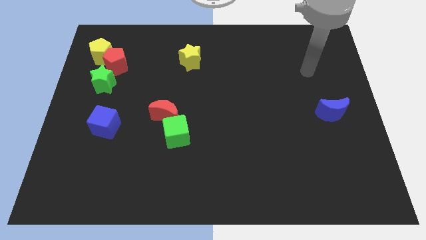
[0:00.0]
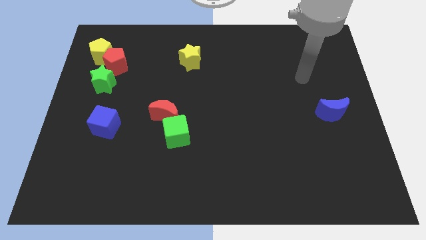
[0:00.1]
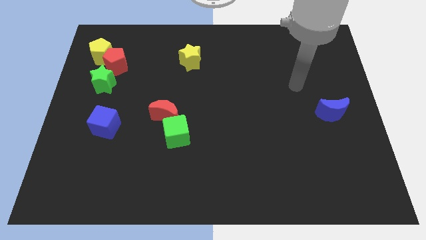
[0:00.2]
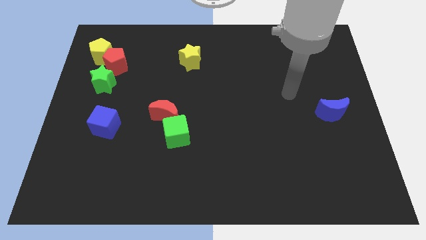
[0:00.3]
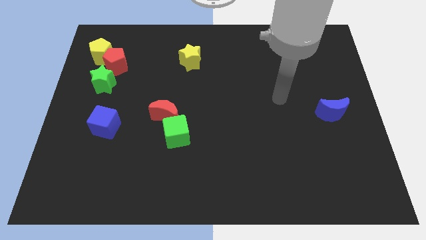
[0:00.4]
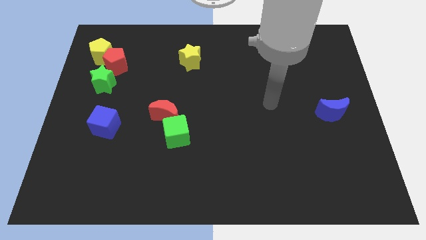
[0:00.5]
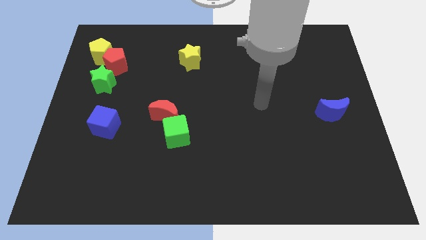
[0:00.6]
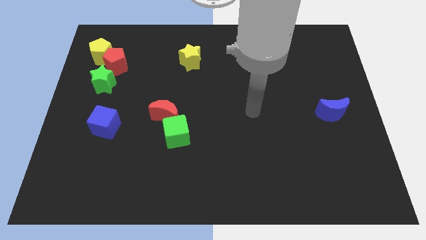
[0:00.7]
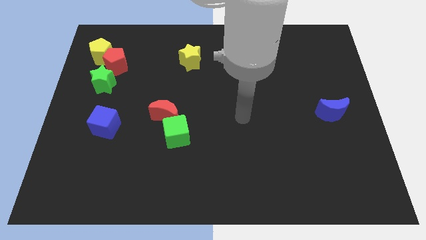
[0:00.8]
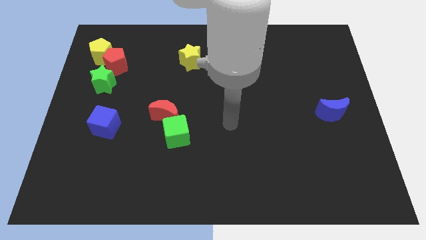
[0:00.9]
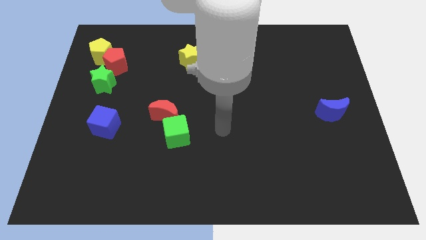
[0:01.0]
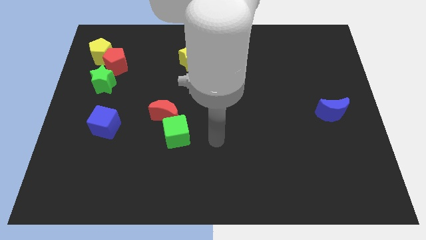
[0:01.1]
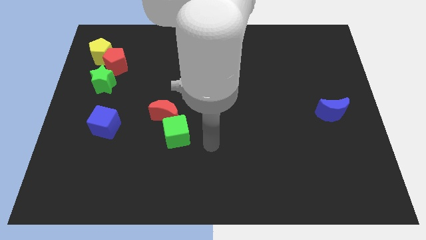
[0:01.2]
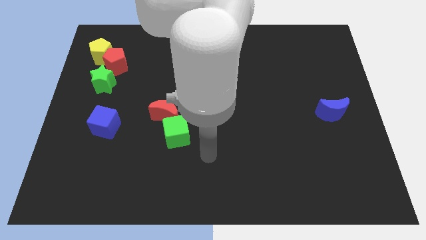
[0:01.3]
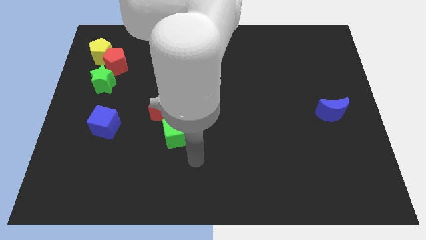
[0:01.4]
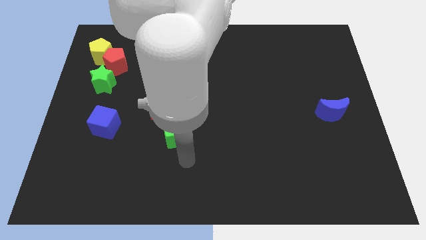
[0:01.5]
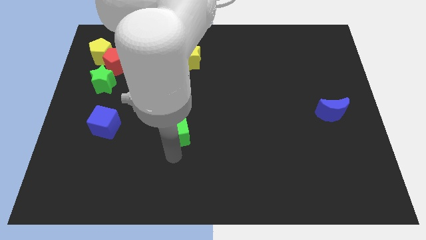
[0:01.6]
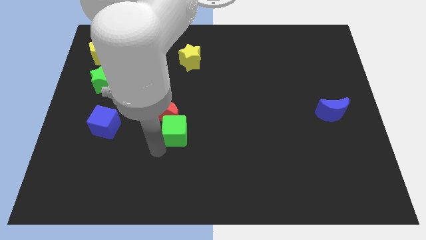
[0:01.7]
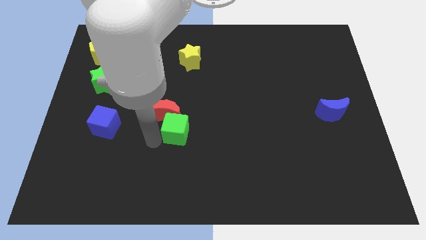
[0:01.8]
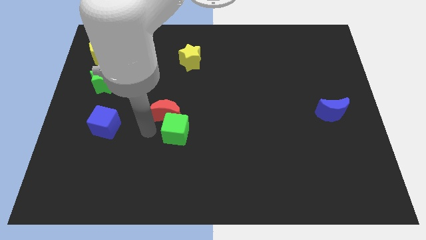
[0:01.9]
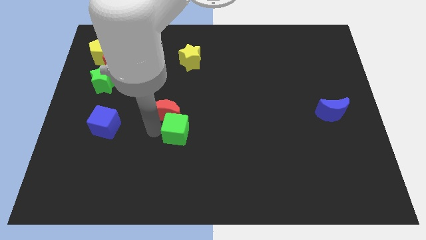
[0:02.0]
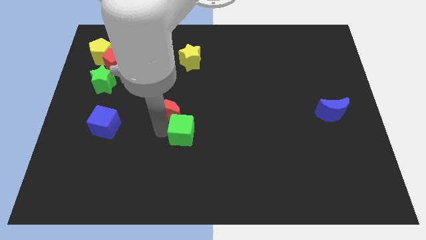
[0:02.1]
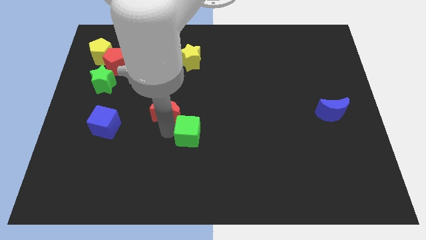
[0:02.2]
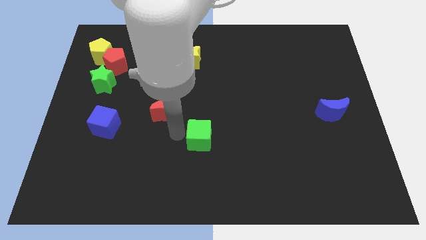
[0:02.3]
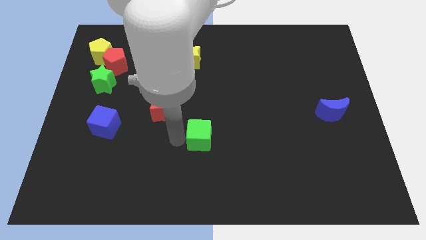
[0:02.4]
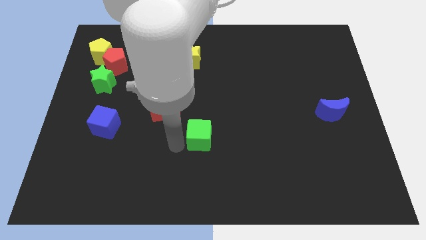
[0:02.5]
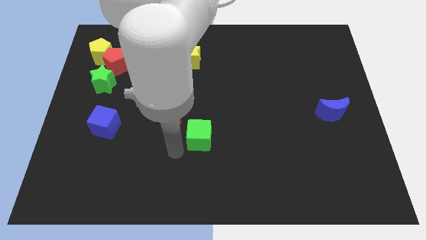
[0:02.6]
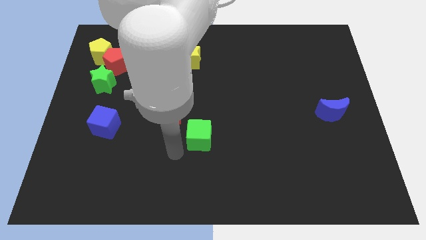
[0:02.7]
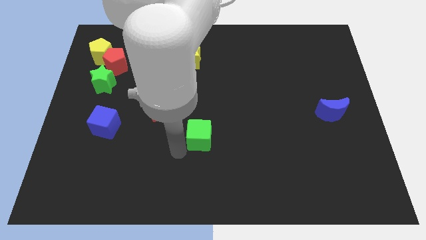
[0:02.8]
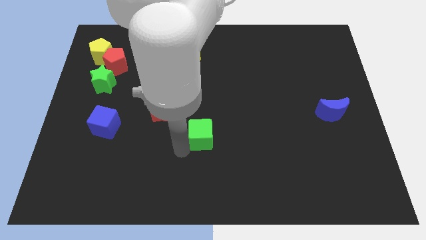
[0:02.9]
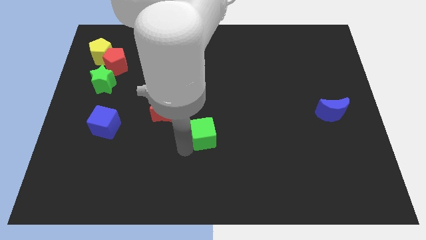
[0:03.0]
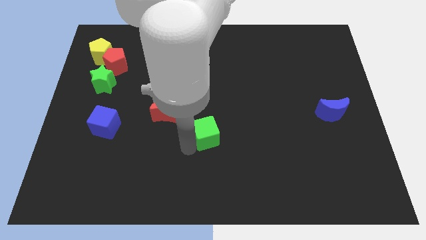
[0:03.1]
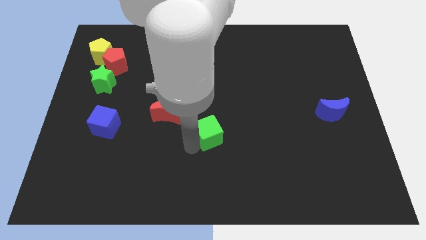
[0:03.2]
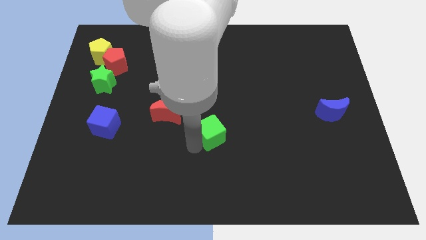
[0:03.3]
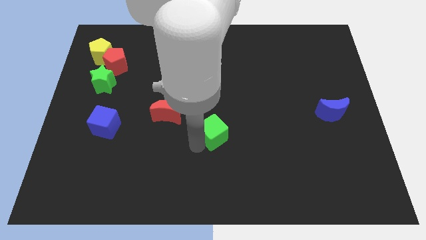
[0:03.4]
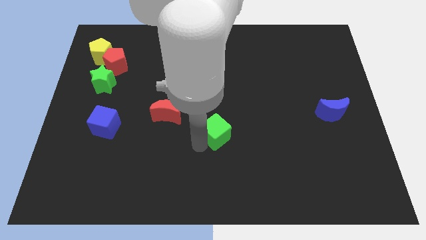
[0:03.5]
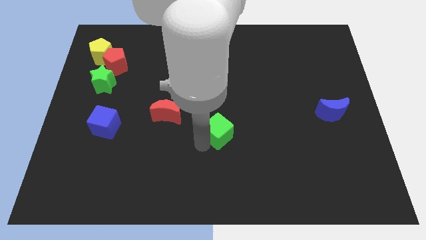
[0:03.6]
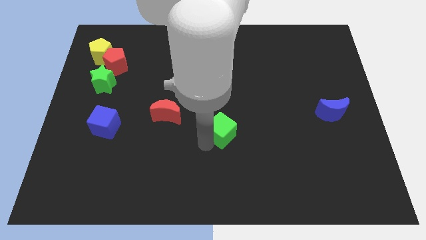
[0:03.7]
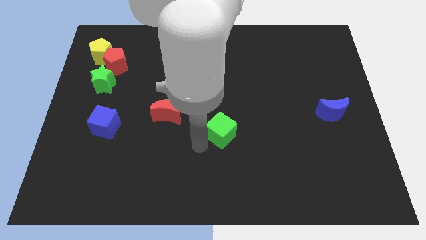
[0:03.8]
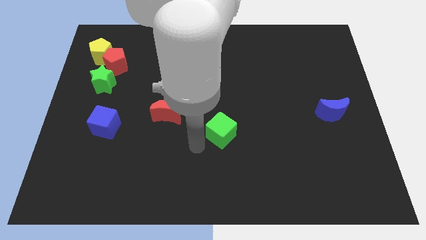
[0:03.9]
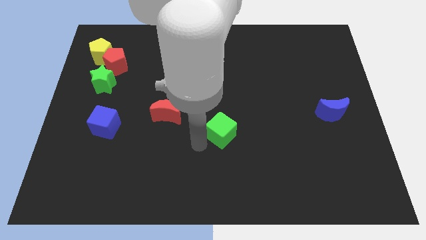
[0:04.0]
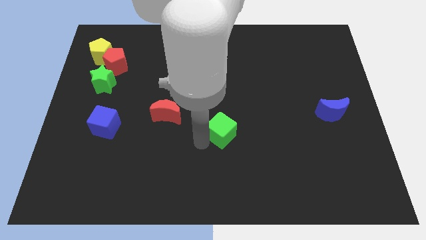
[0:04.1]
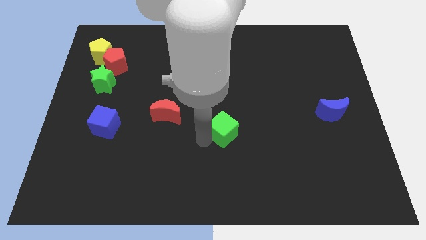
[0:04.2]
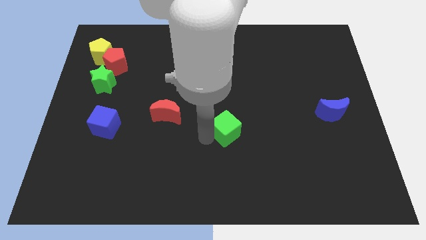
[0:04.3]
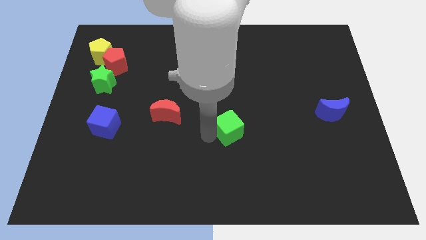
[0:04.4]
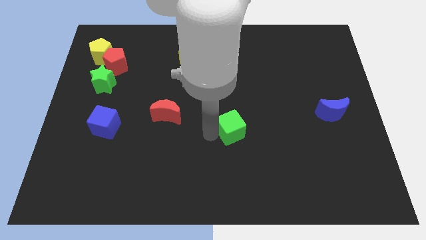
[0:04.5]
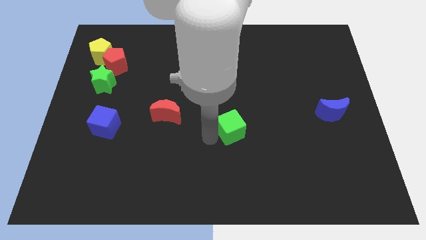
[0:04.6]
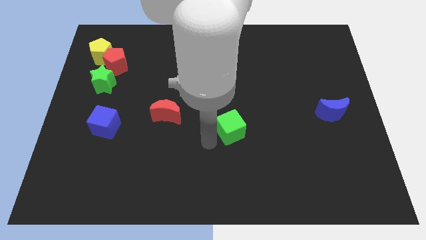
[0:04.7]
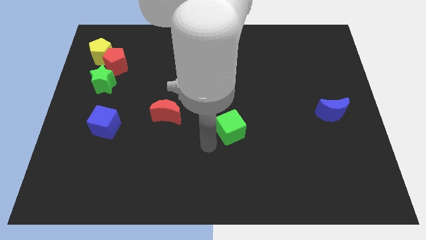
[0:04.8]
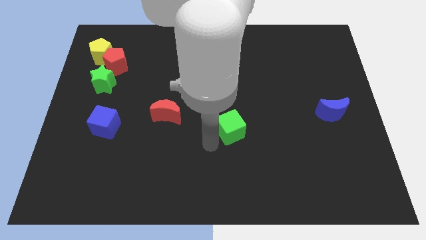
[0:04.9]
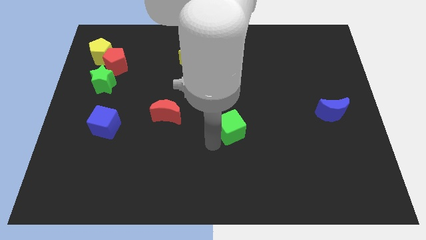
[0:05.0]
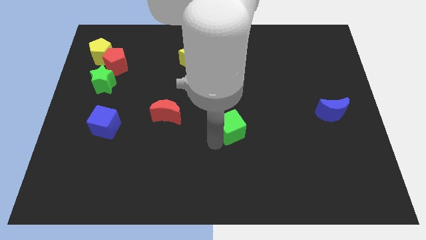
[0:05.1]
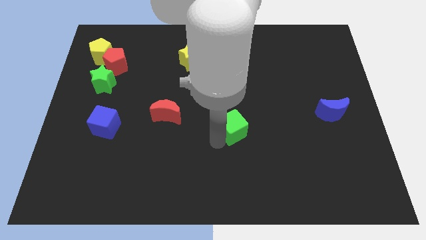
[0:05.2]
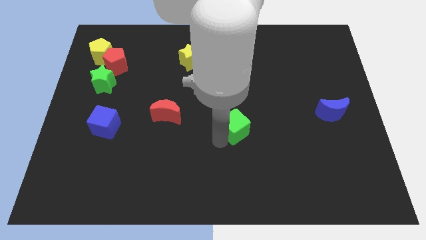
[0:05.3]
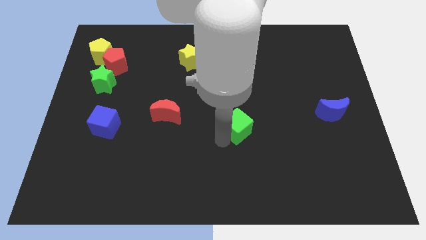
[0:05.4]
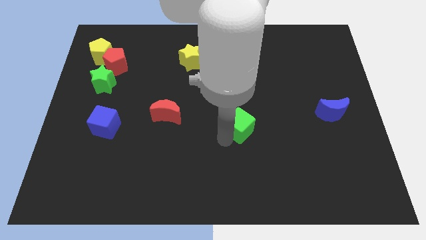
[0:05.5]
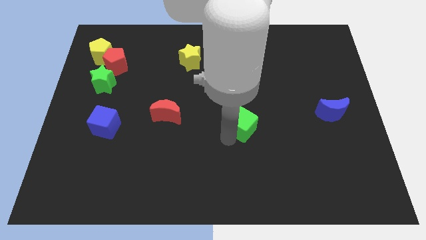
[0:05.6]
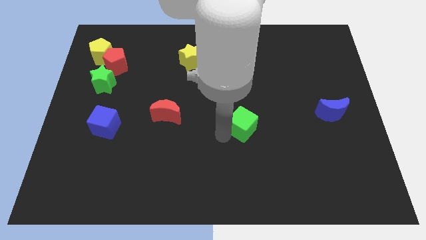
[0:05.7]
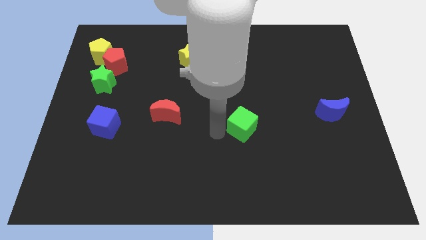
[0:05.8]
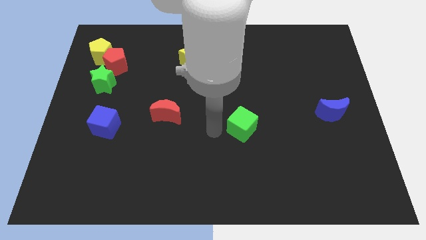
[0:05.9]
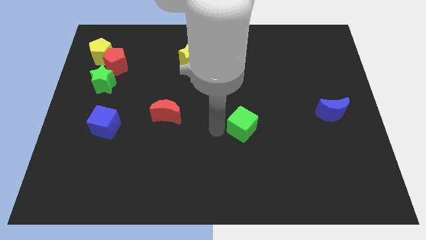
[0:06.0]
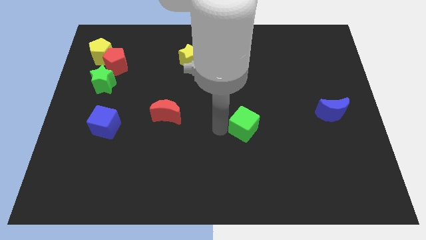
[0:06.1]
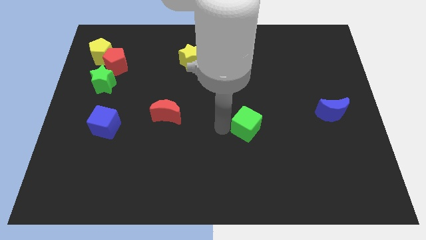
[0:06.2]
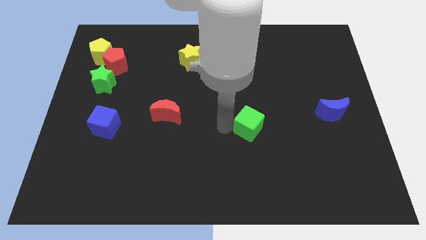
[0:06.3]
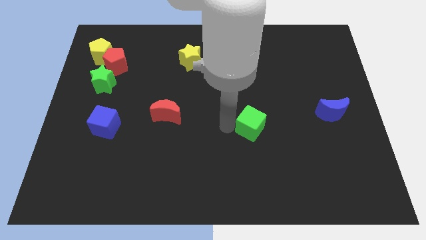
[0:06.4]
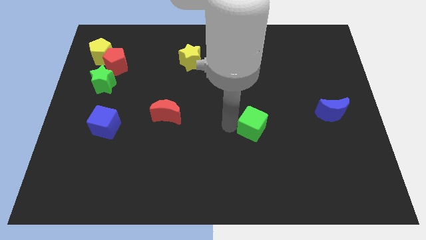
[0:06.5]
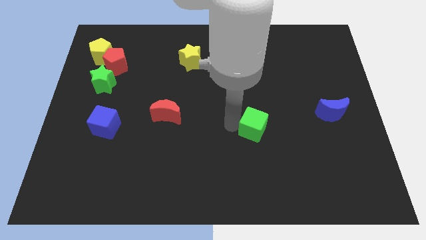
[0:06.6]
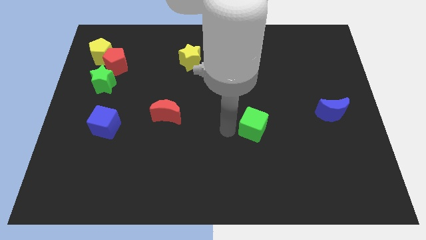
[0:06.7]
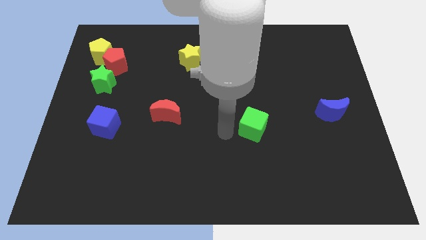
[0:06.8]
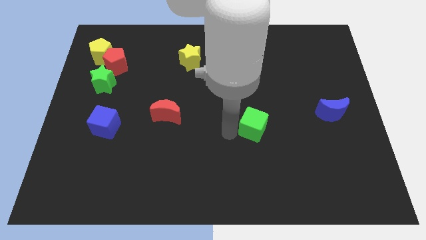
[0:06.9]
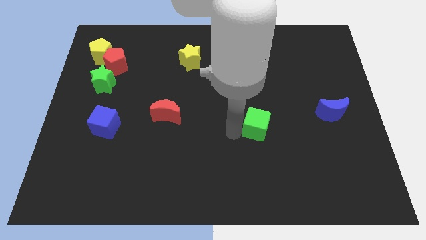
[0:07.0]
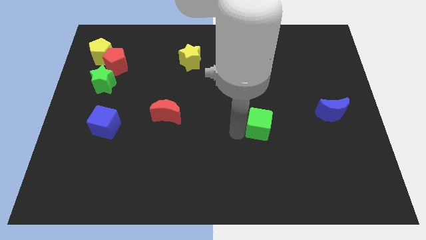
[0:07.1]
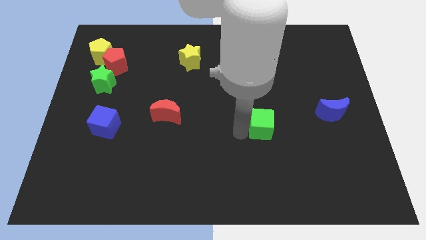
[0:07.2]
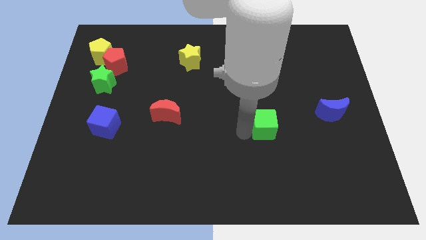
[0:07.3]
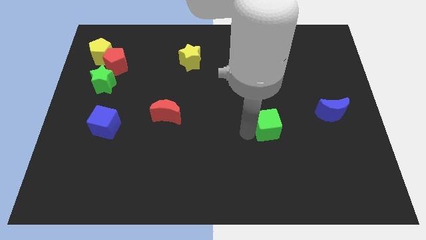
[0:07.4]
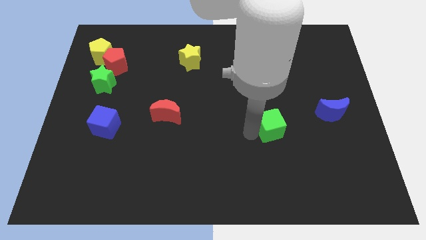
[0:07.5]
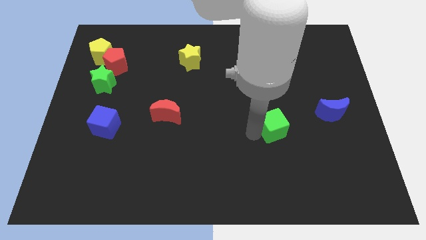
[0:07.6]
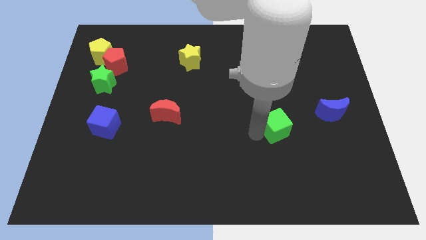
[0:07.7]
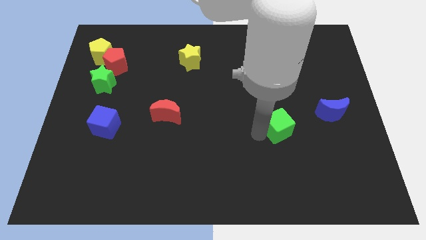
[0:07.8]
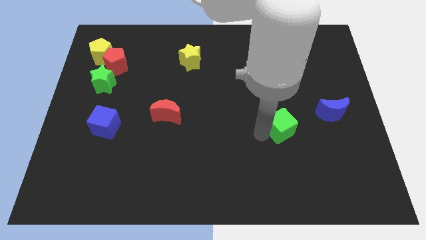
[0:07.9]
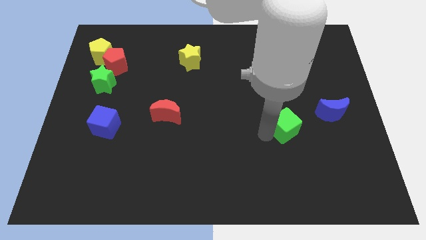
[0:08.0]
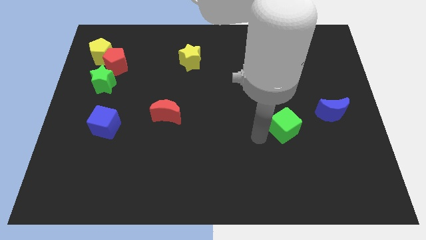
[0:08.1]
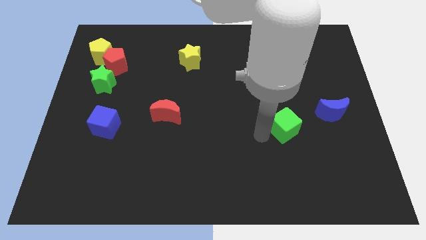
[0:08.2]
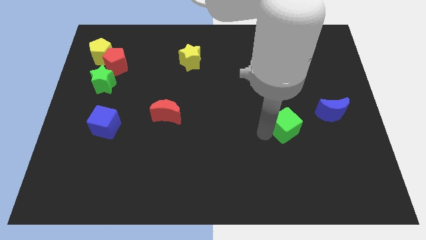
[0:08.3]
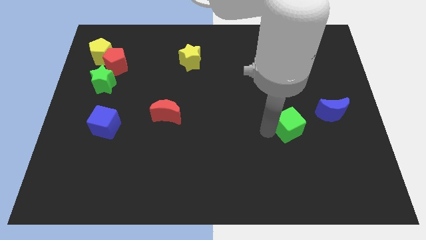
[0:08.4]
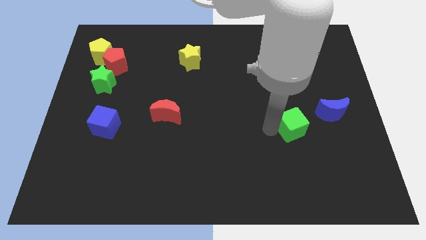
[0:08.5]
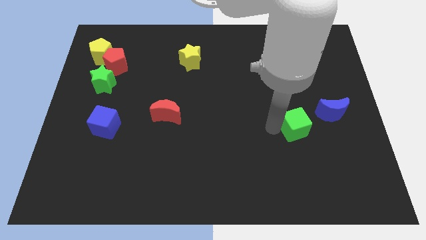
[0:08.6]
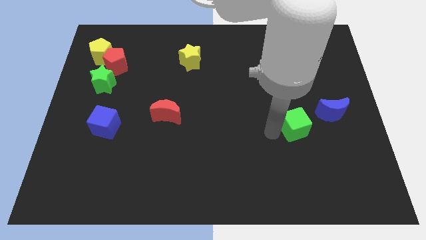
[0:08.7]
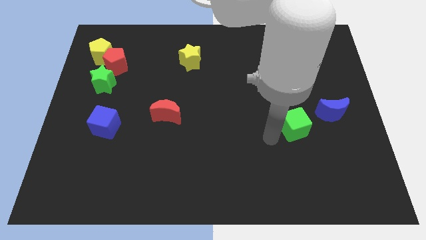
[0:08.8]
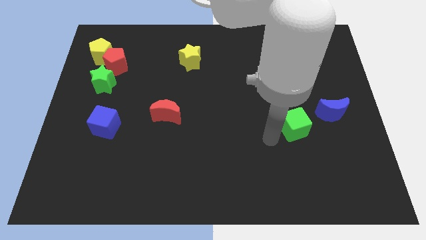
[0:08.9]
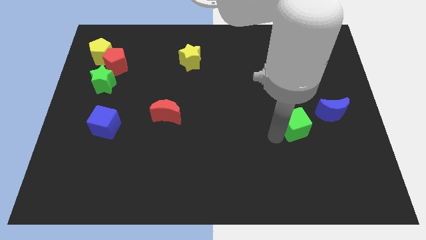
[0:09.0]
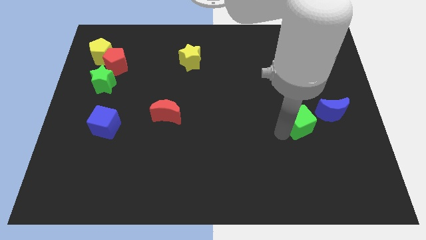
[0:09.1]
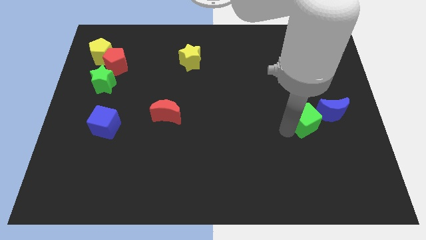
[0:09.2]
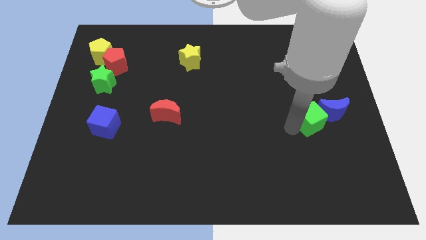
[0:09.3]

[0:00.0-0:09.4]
slide the green cube to the blue moon
